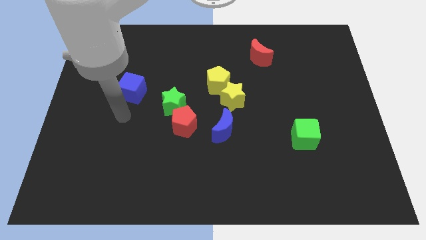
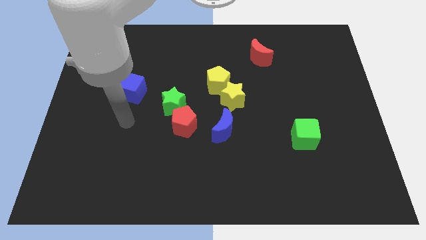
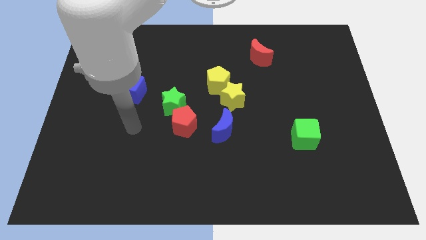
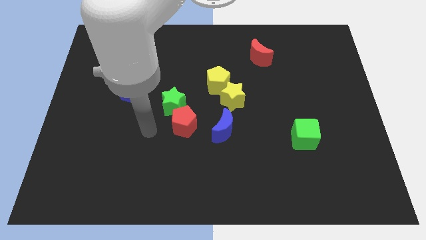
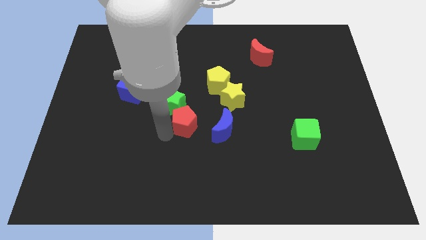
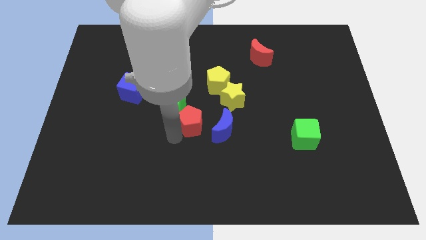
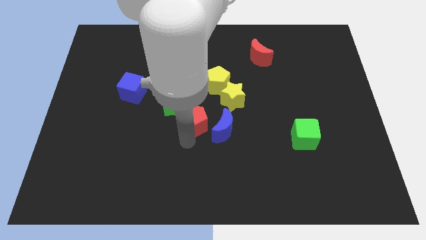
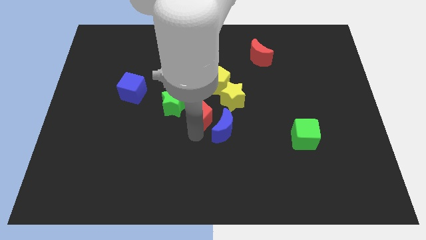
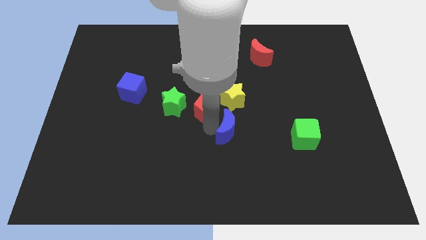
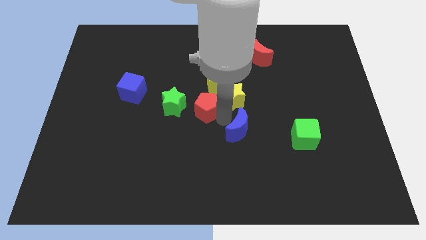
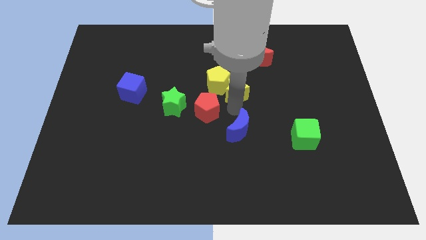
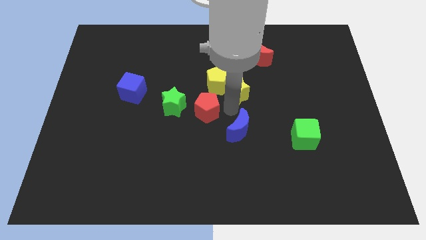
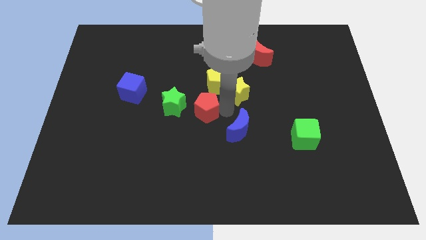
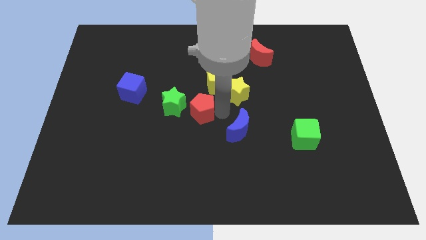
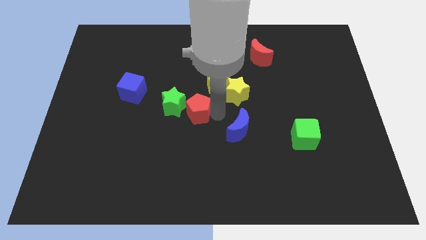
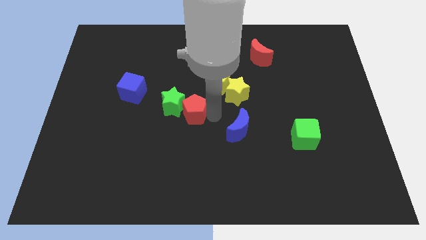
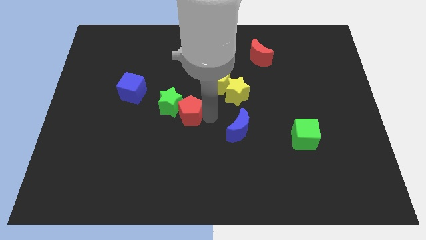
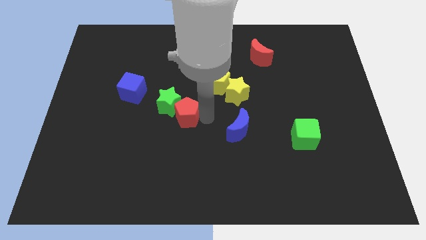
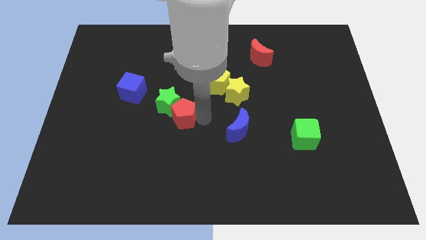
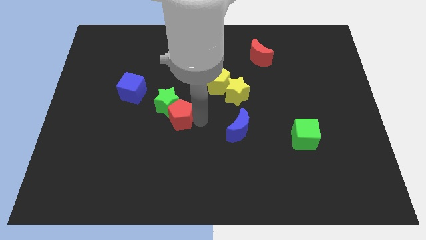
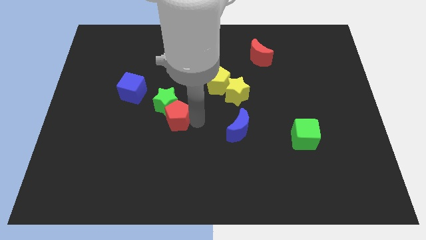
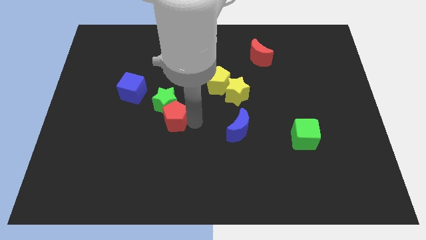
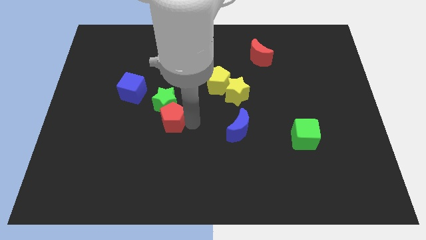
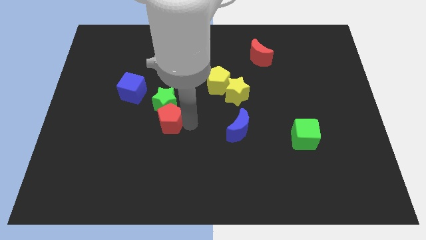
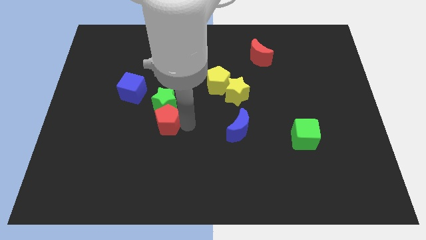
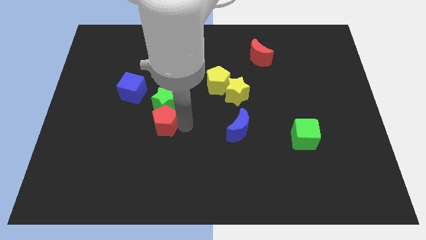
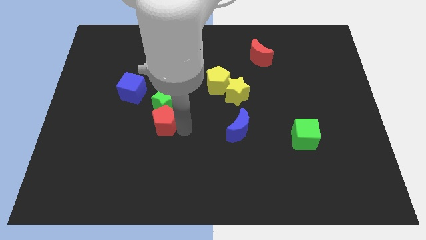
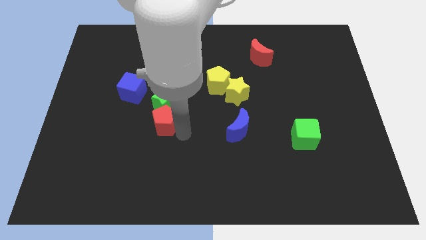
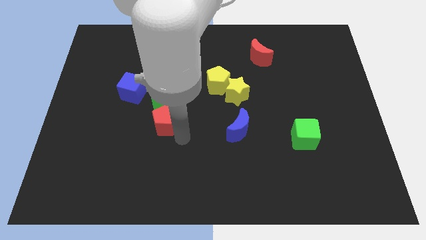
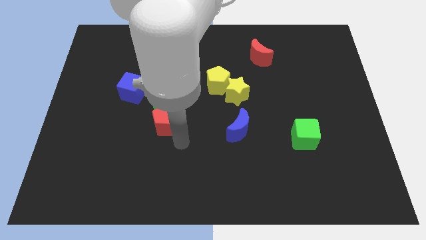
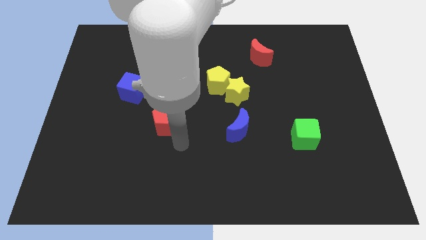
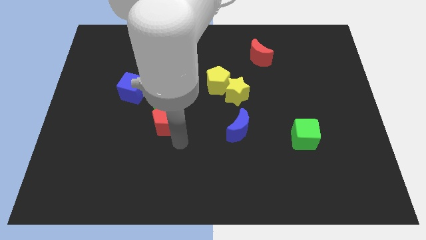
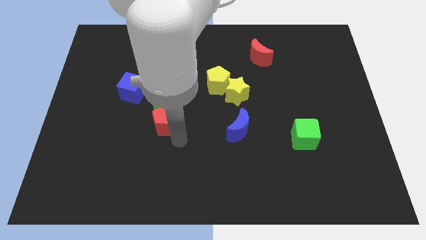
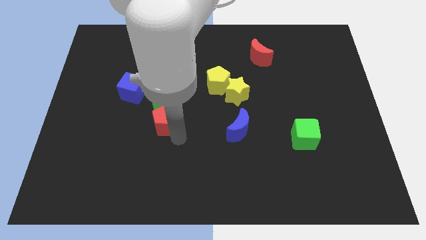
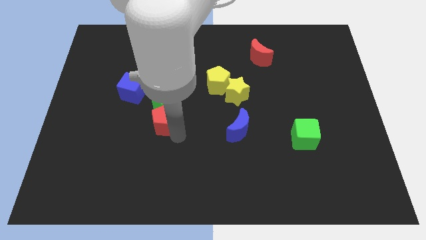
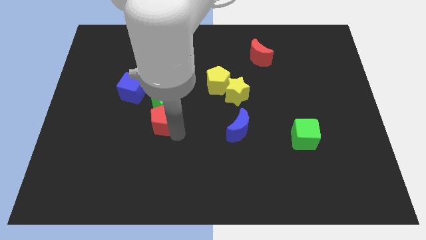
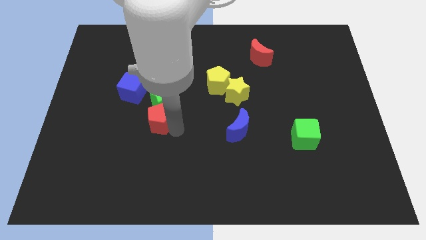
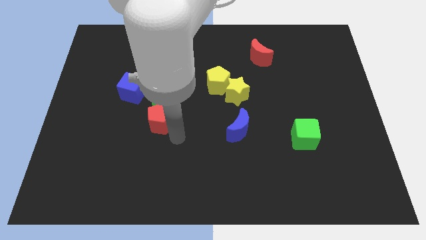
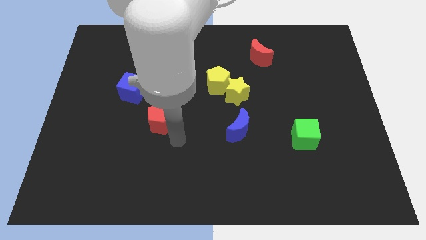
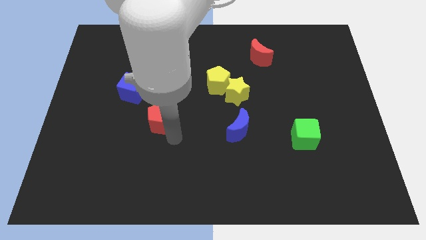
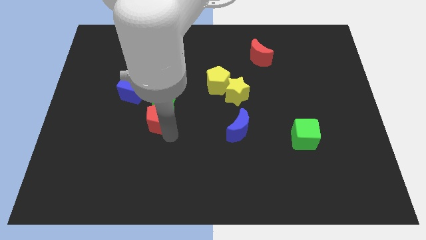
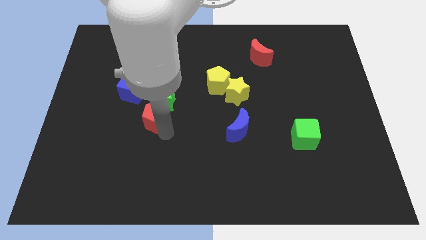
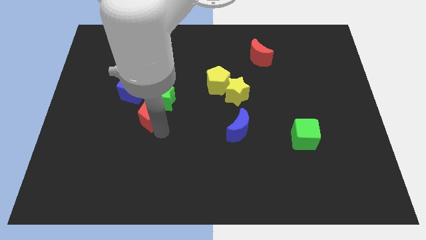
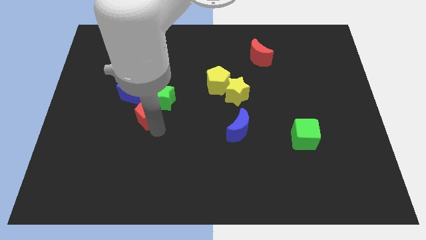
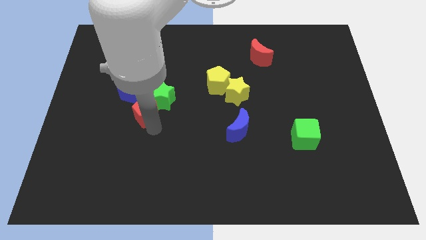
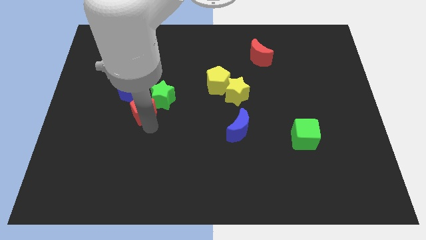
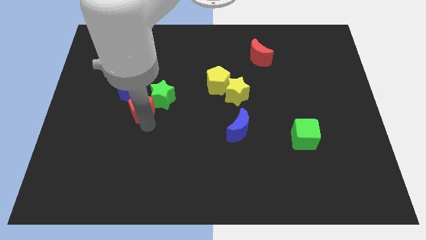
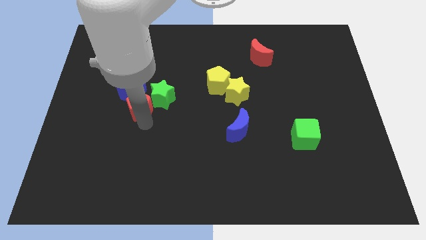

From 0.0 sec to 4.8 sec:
slide the red pentagon next to the blue cube

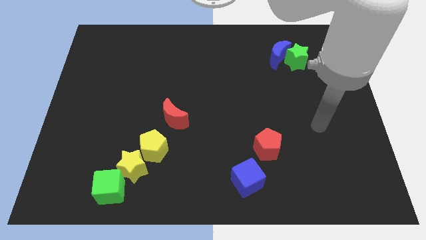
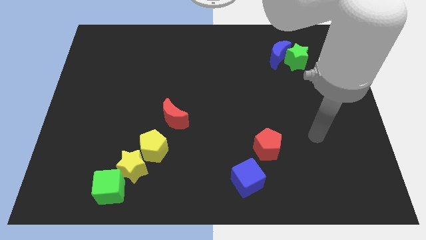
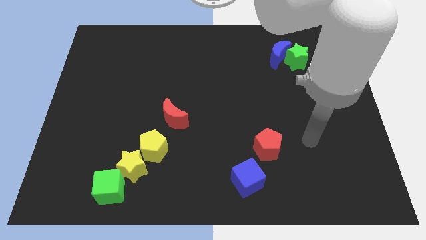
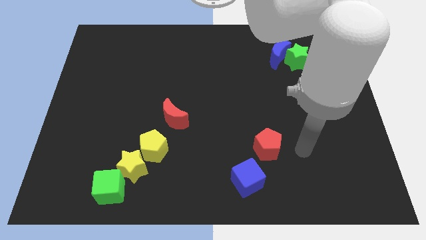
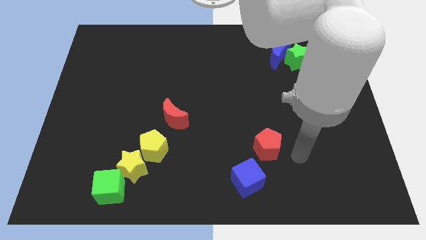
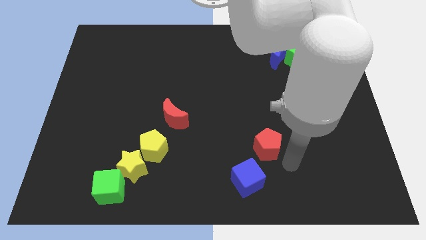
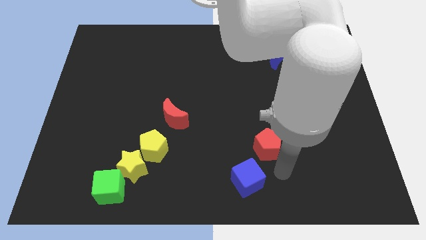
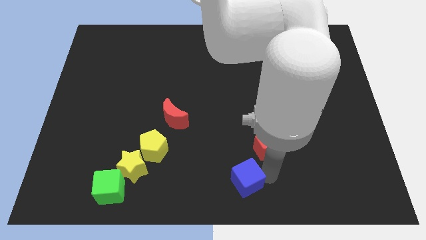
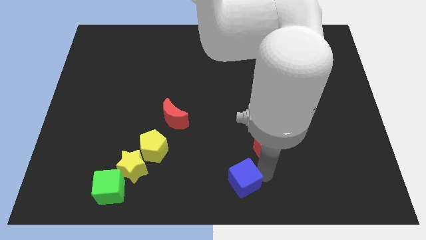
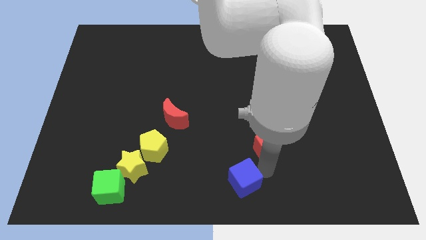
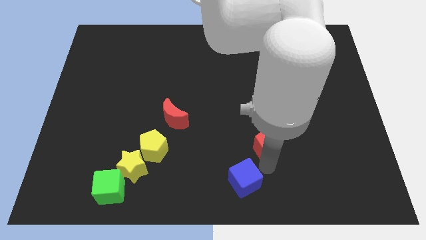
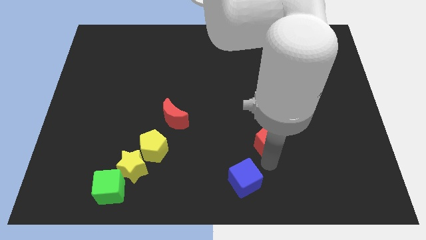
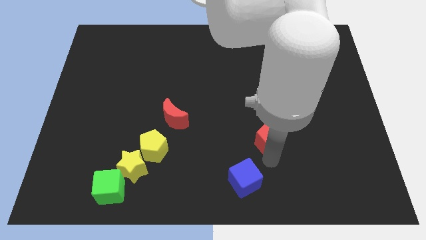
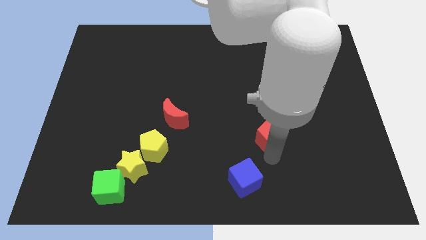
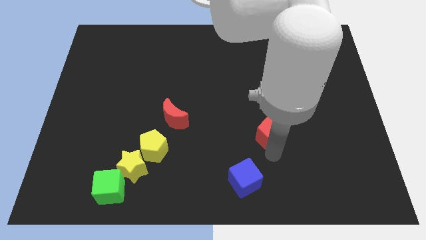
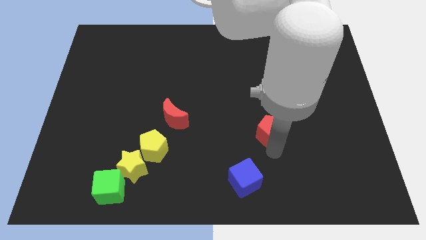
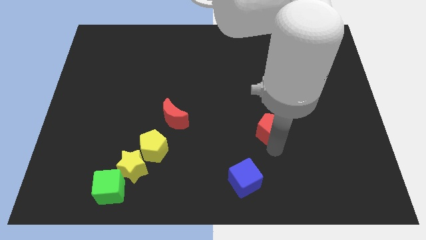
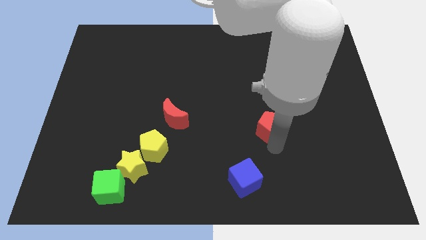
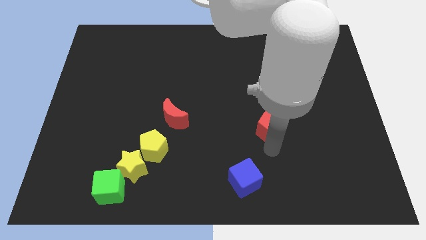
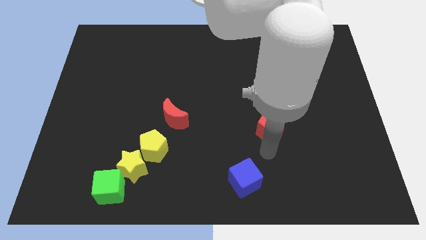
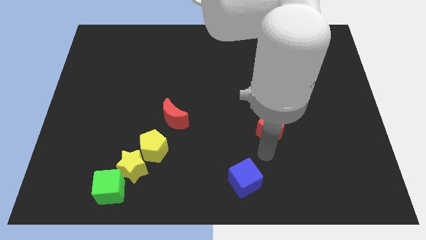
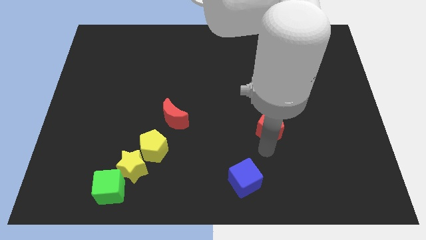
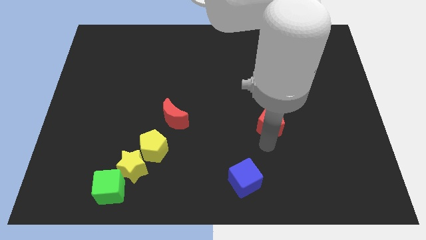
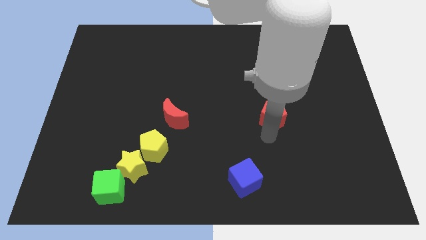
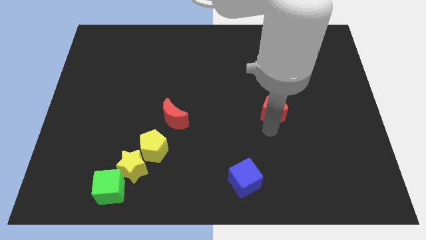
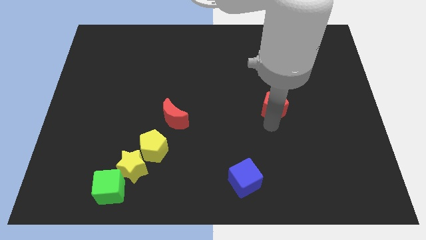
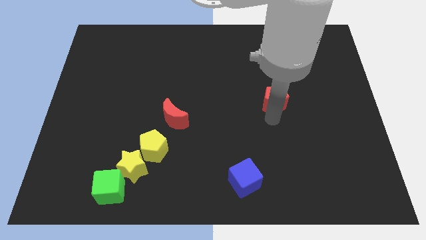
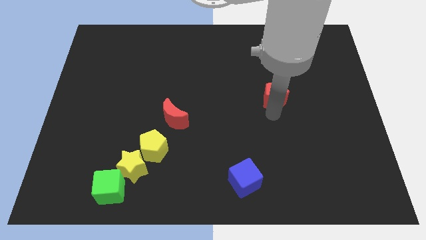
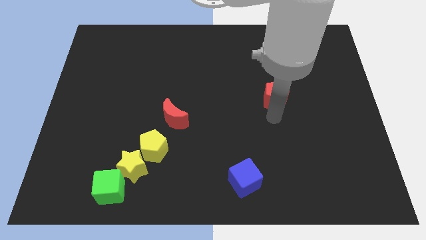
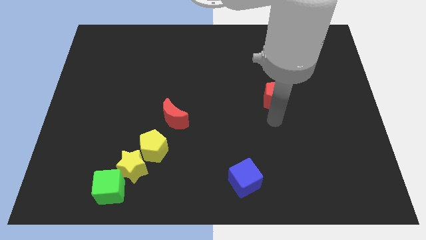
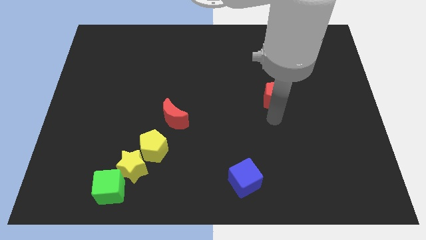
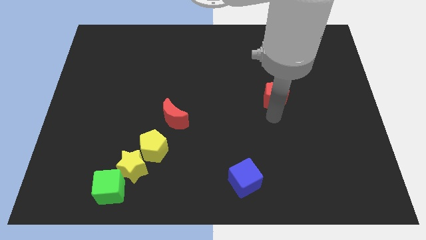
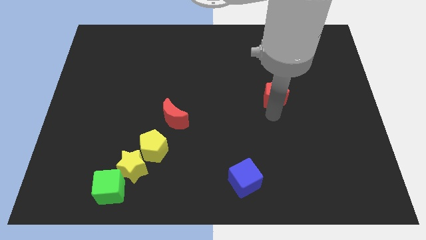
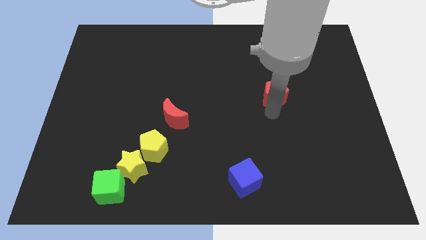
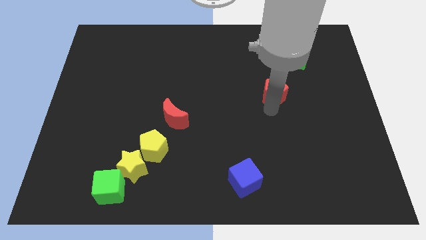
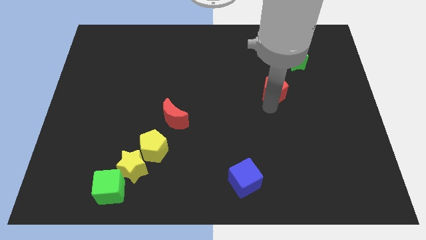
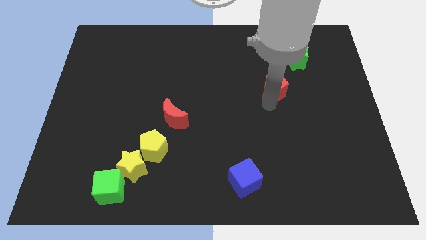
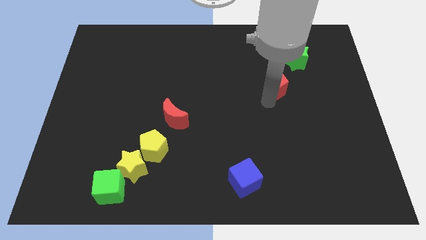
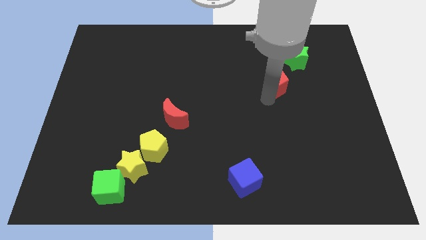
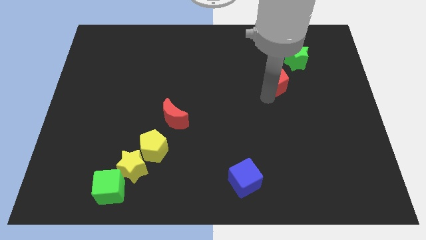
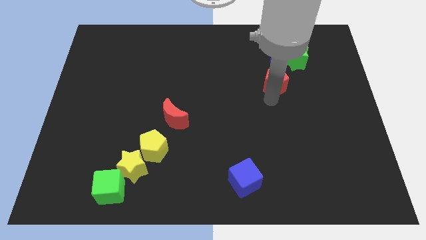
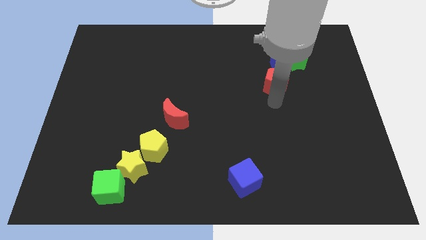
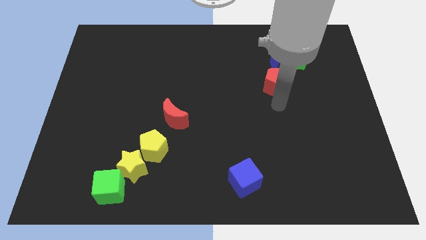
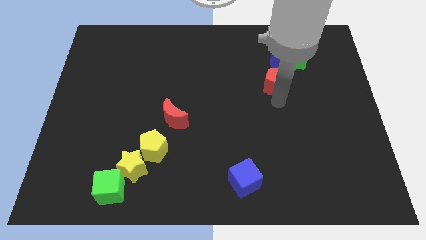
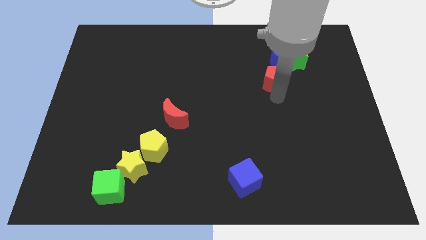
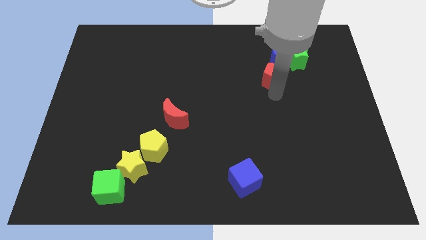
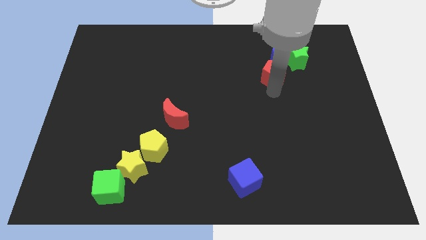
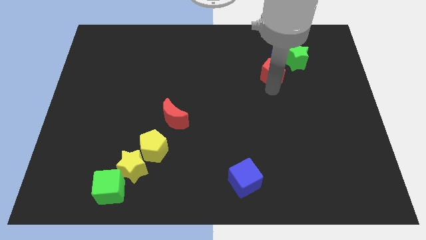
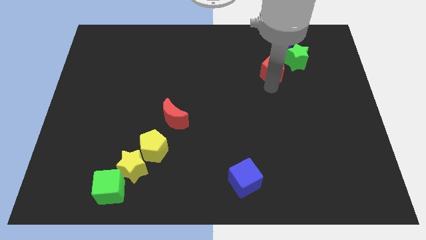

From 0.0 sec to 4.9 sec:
push the red pentagon to the blue moon
